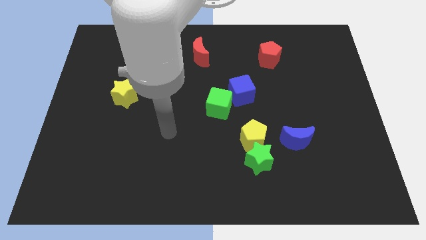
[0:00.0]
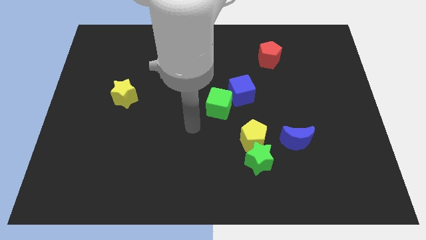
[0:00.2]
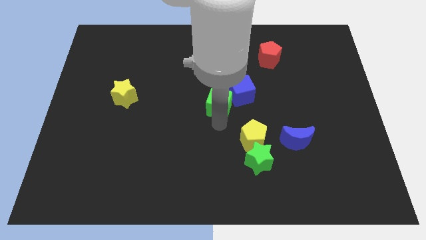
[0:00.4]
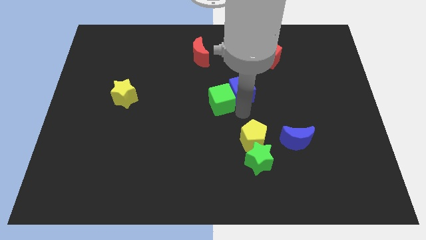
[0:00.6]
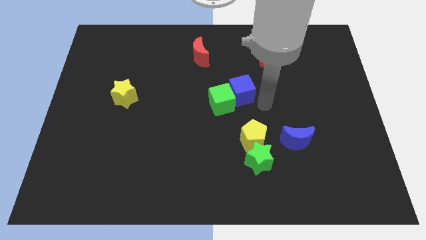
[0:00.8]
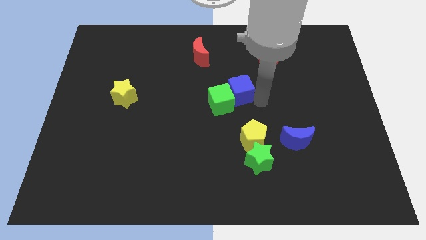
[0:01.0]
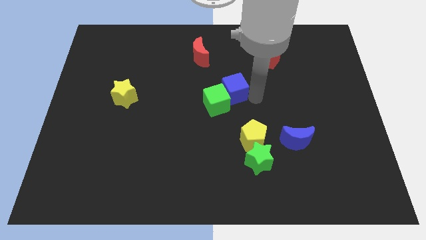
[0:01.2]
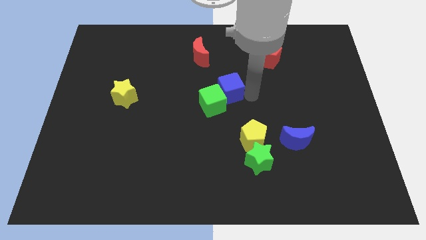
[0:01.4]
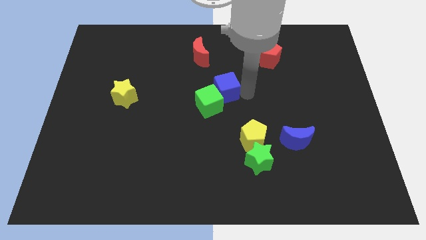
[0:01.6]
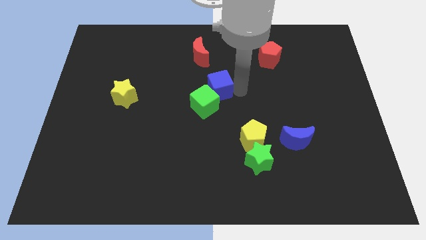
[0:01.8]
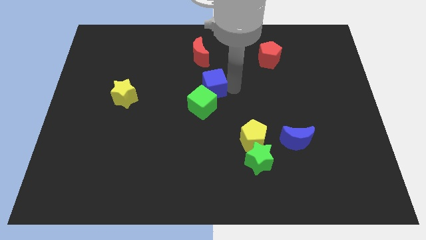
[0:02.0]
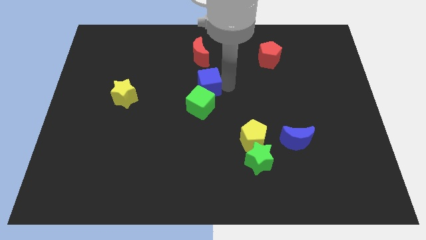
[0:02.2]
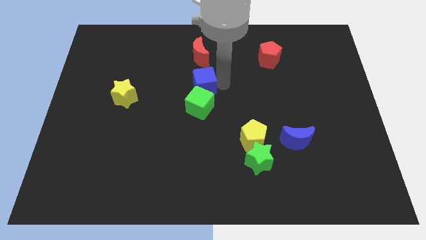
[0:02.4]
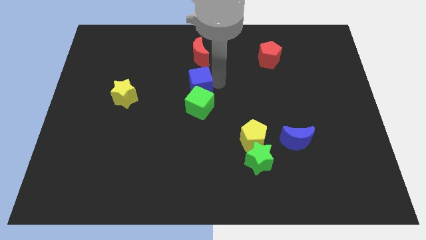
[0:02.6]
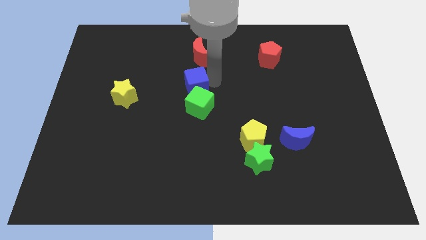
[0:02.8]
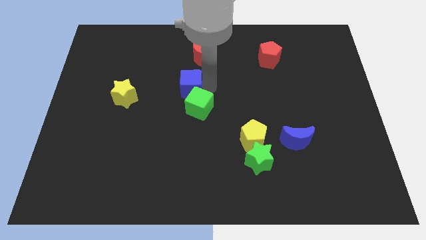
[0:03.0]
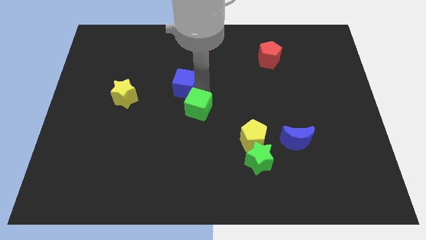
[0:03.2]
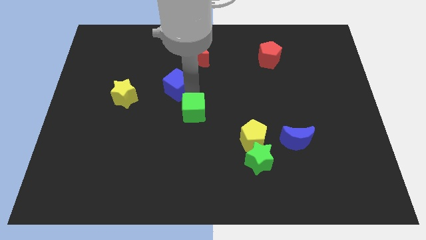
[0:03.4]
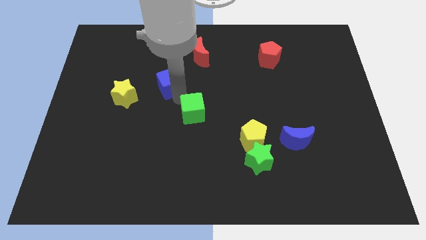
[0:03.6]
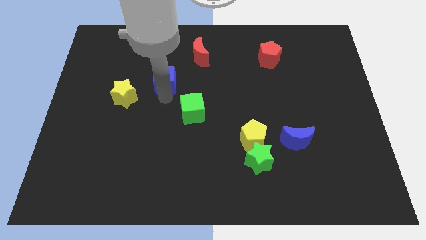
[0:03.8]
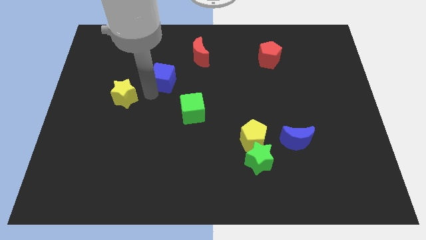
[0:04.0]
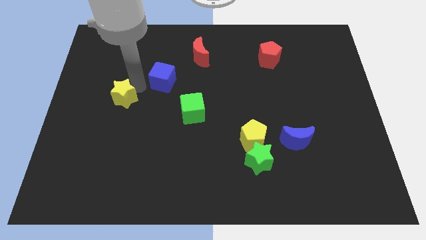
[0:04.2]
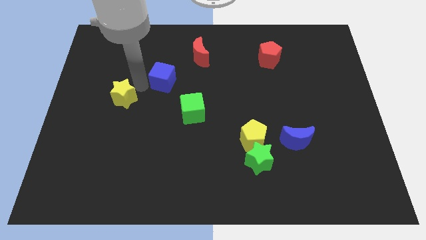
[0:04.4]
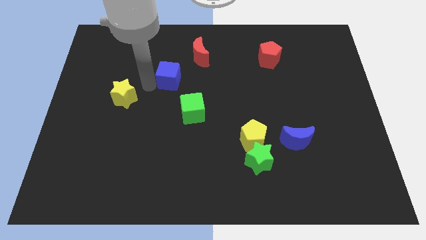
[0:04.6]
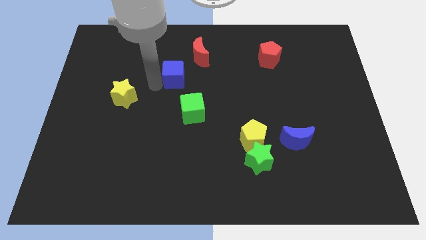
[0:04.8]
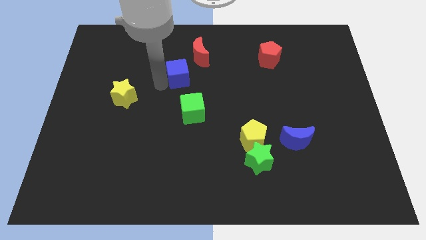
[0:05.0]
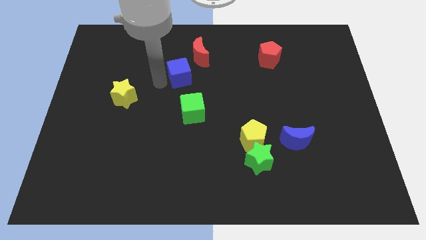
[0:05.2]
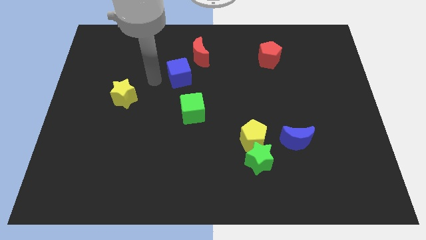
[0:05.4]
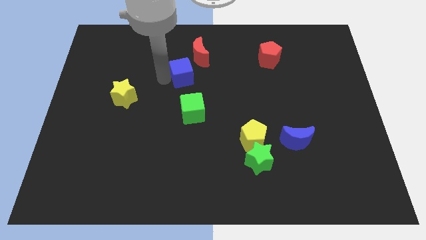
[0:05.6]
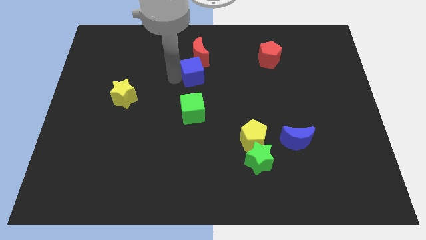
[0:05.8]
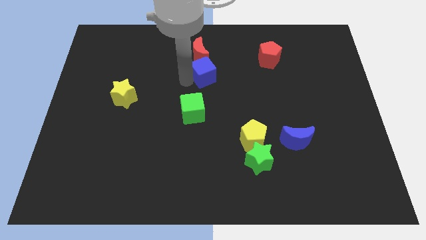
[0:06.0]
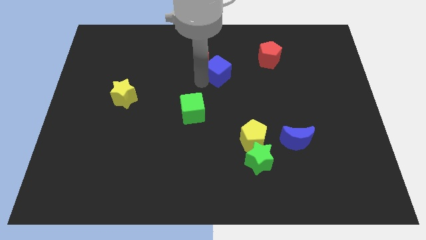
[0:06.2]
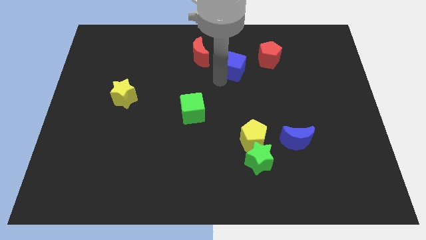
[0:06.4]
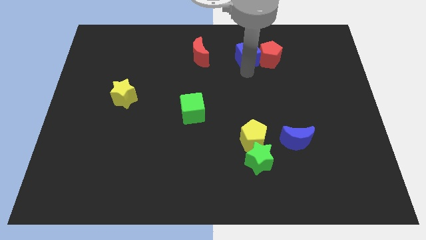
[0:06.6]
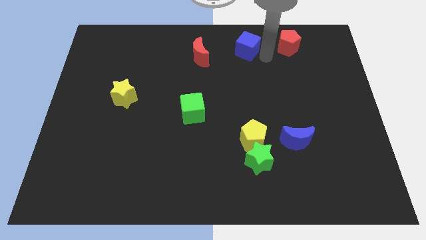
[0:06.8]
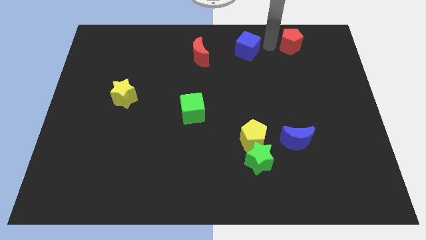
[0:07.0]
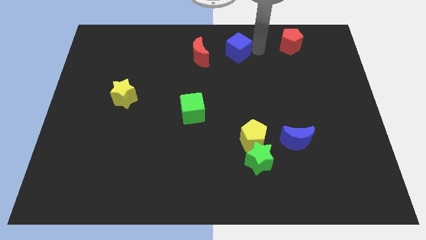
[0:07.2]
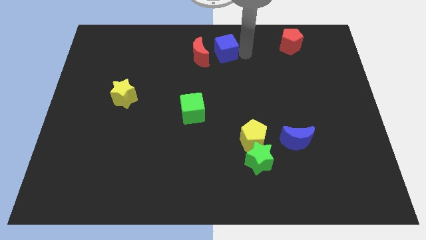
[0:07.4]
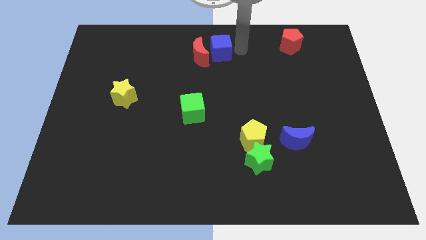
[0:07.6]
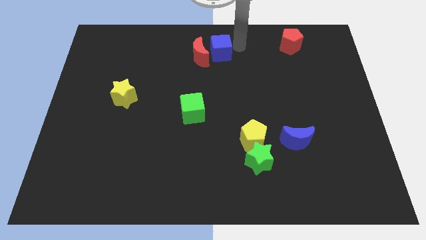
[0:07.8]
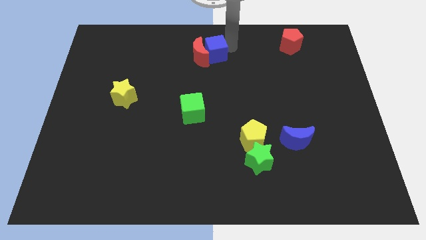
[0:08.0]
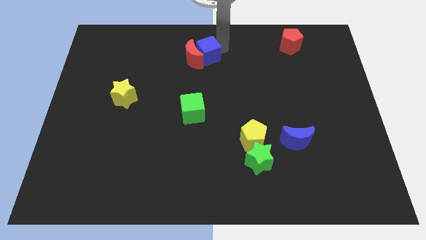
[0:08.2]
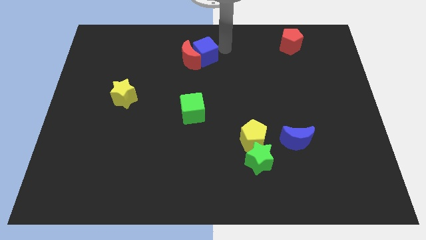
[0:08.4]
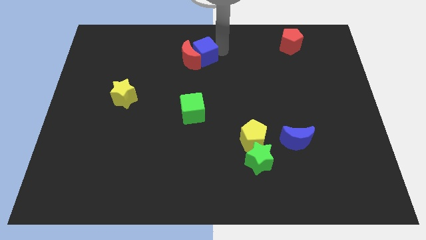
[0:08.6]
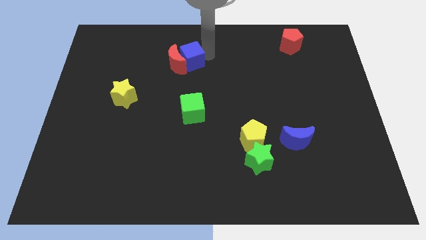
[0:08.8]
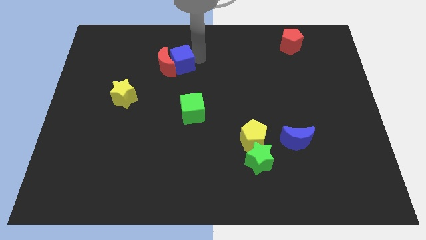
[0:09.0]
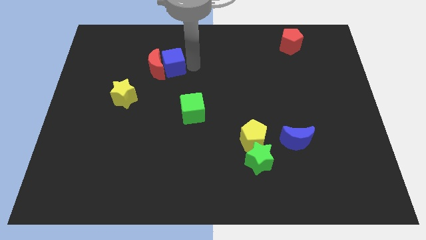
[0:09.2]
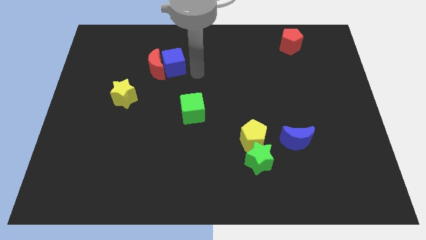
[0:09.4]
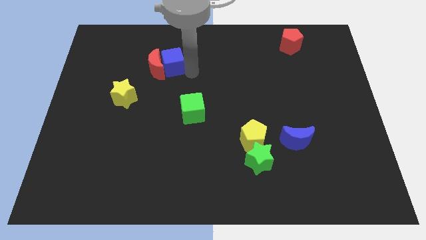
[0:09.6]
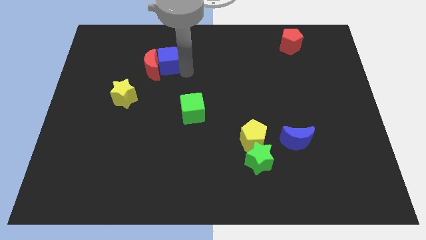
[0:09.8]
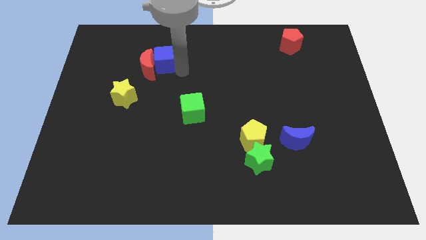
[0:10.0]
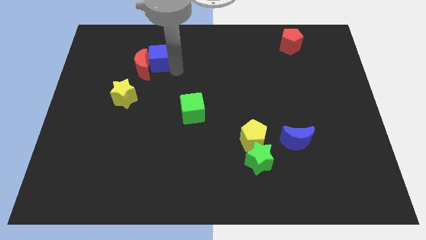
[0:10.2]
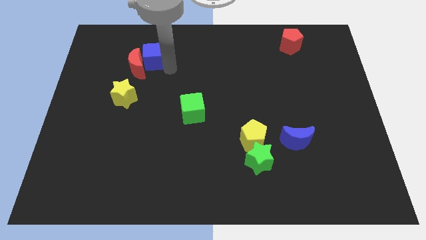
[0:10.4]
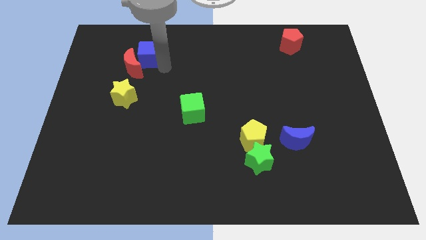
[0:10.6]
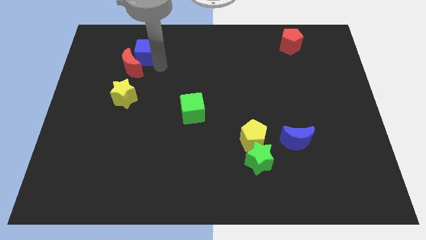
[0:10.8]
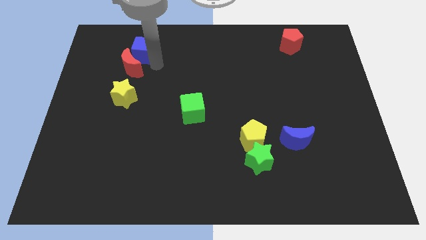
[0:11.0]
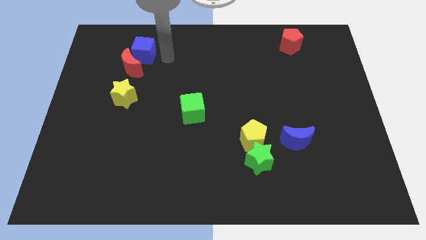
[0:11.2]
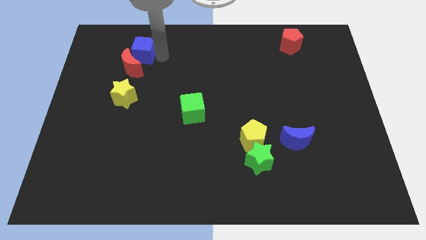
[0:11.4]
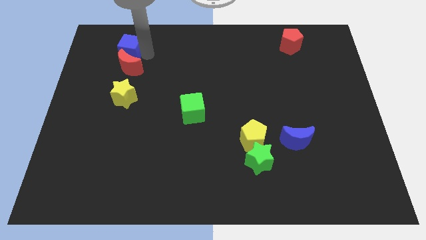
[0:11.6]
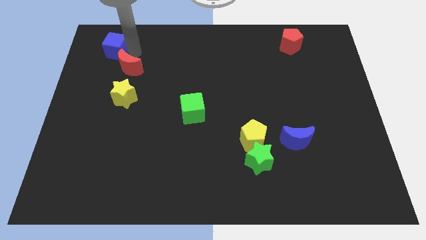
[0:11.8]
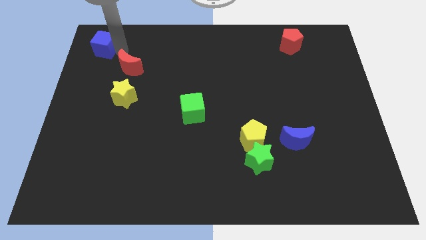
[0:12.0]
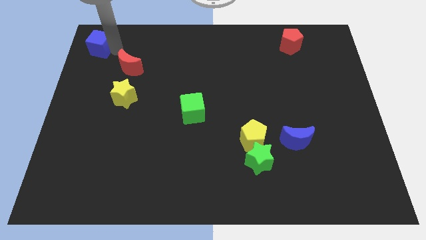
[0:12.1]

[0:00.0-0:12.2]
move the blue cube to the top left of the board

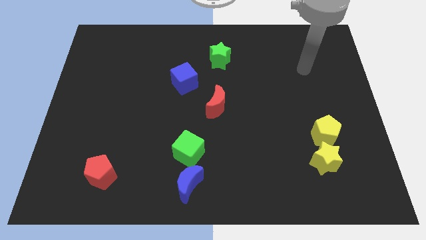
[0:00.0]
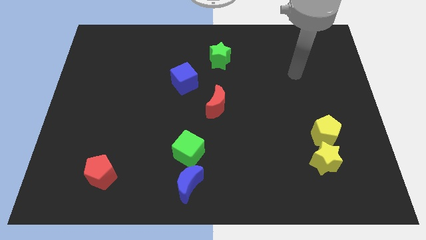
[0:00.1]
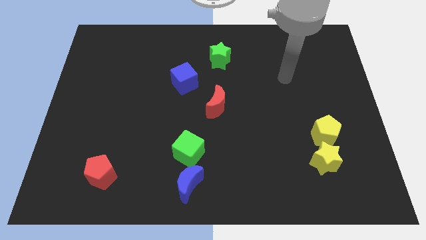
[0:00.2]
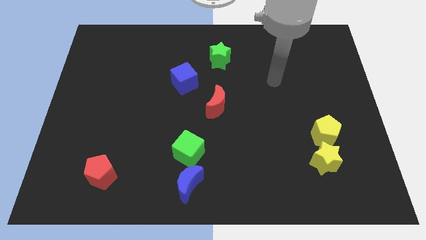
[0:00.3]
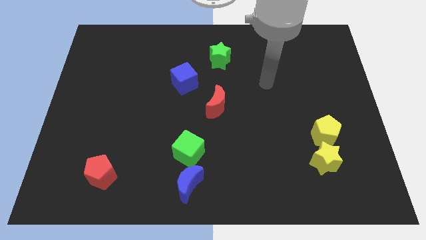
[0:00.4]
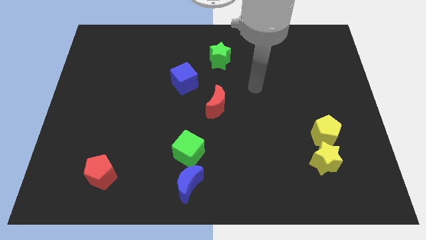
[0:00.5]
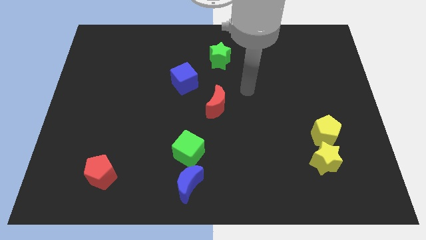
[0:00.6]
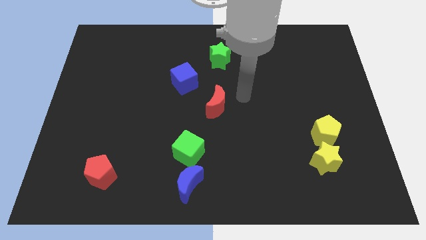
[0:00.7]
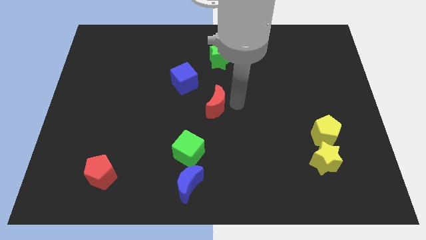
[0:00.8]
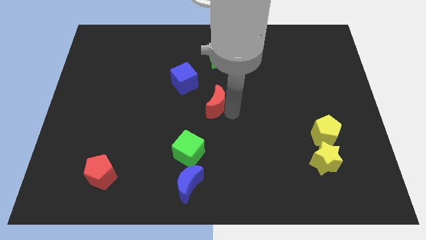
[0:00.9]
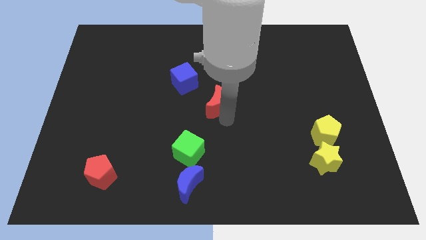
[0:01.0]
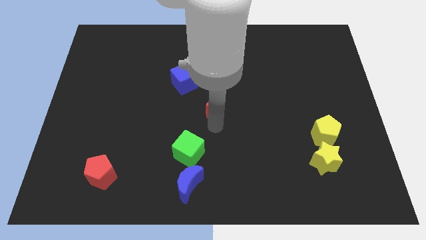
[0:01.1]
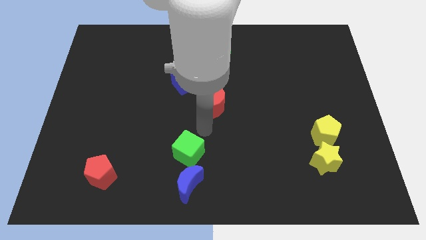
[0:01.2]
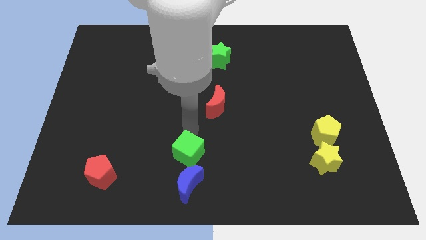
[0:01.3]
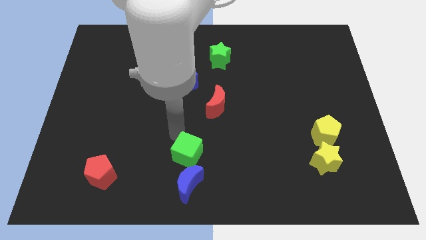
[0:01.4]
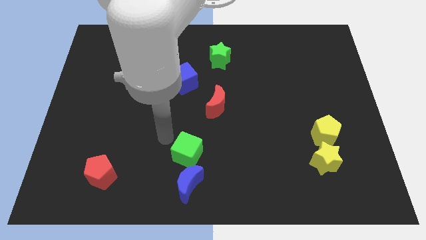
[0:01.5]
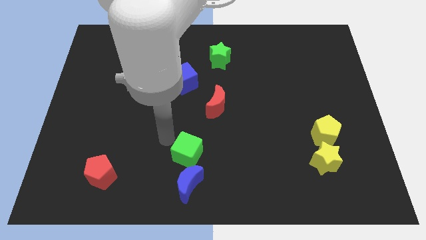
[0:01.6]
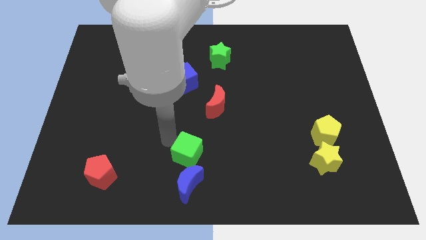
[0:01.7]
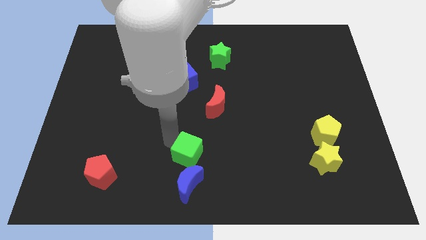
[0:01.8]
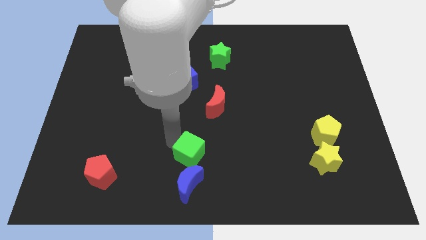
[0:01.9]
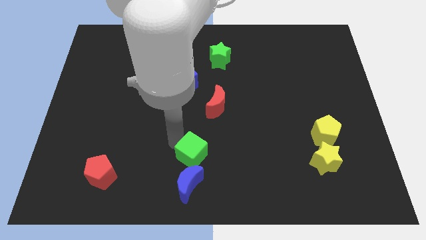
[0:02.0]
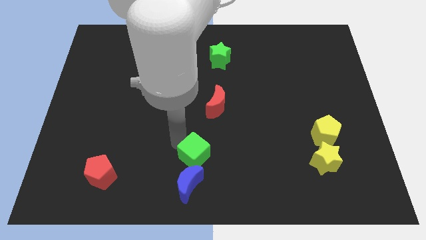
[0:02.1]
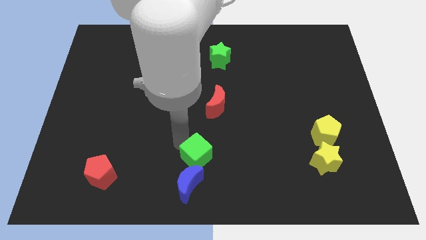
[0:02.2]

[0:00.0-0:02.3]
put the green cube to the bottom
